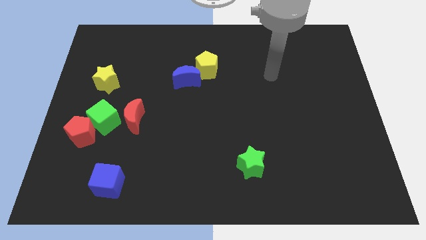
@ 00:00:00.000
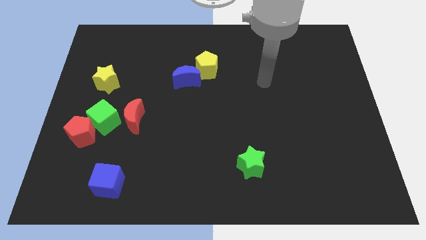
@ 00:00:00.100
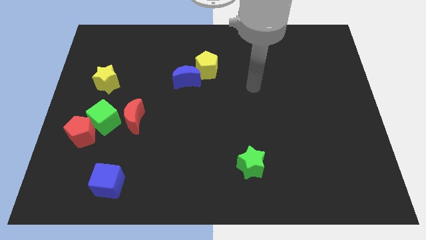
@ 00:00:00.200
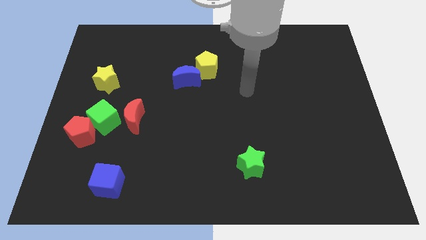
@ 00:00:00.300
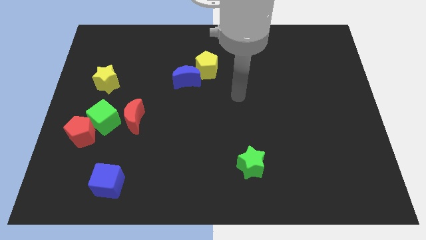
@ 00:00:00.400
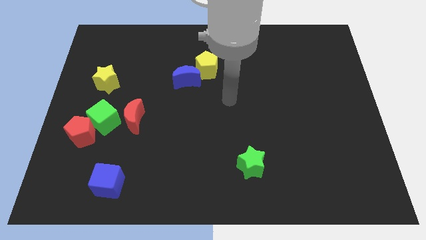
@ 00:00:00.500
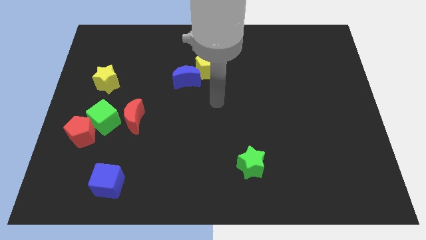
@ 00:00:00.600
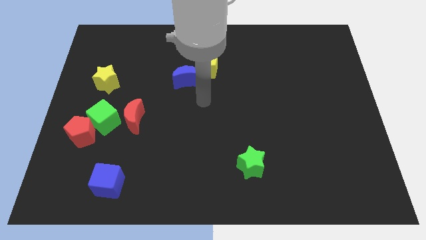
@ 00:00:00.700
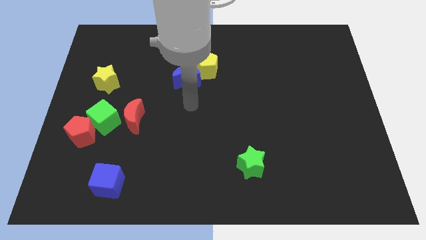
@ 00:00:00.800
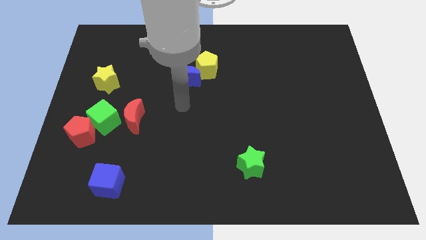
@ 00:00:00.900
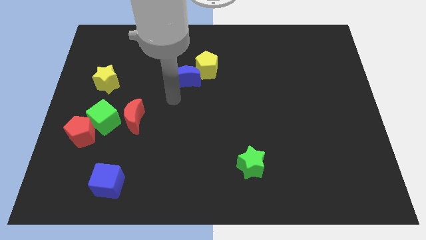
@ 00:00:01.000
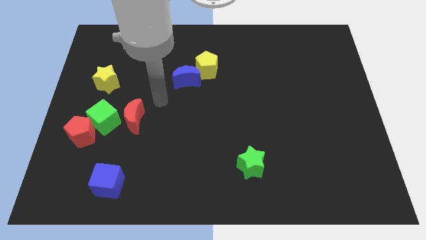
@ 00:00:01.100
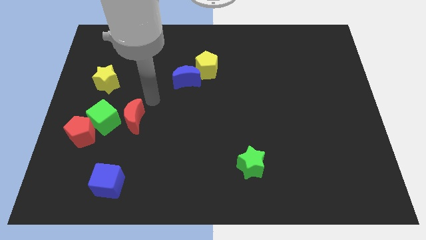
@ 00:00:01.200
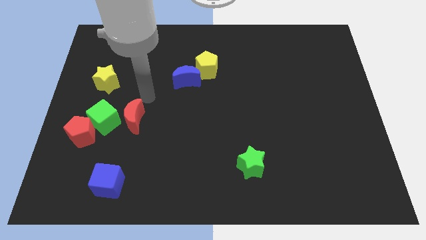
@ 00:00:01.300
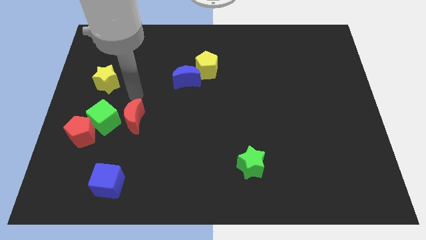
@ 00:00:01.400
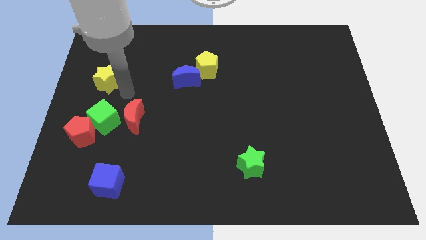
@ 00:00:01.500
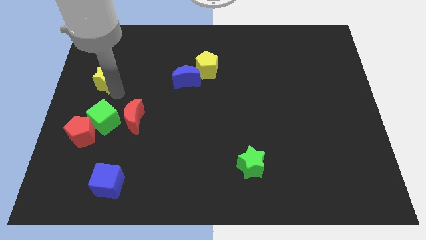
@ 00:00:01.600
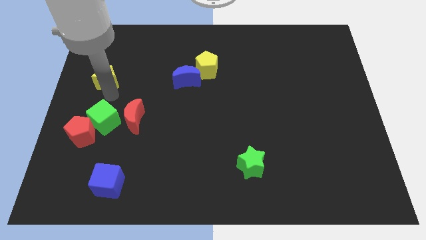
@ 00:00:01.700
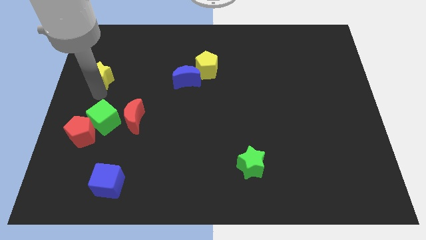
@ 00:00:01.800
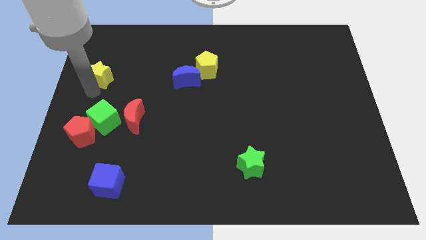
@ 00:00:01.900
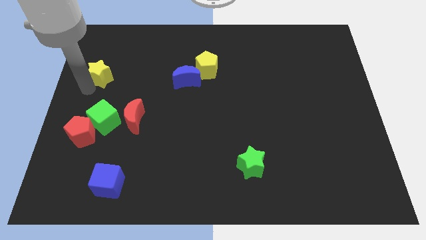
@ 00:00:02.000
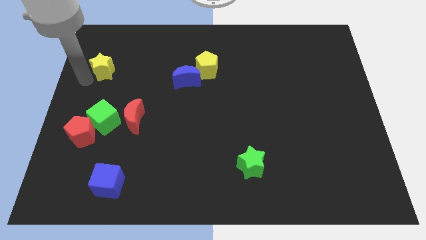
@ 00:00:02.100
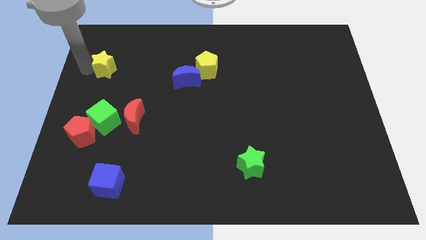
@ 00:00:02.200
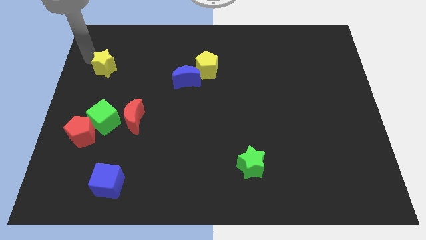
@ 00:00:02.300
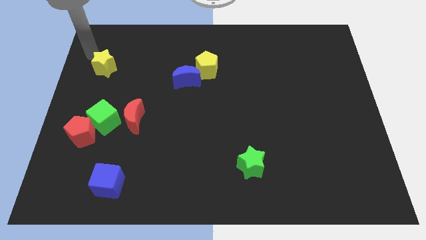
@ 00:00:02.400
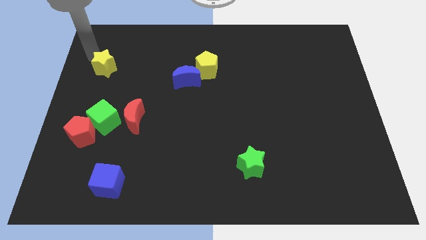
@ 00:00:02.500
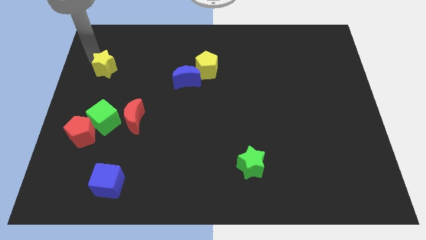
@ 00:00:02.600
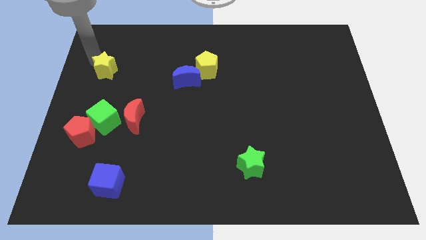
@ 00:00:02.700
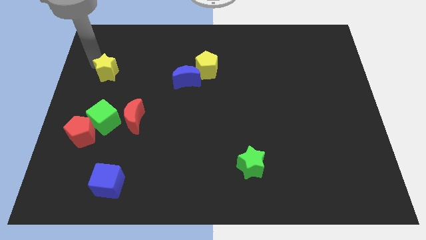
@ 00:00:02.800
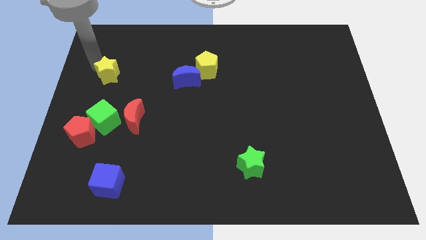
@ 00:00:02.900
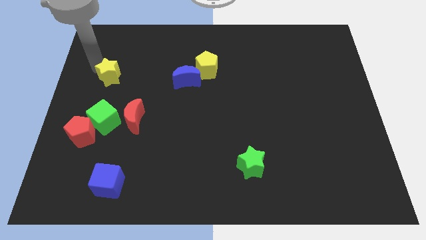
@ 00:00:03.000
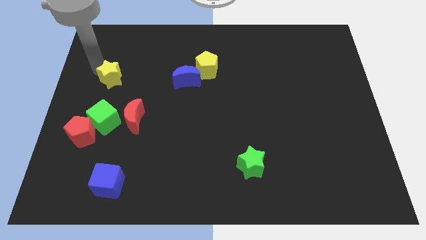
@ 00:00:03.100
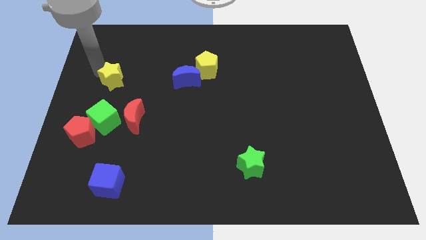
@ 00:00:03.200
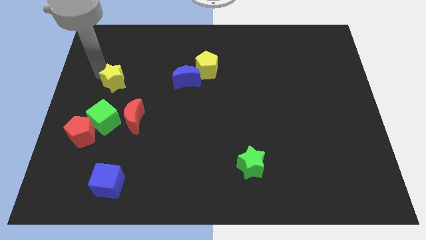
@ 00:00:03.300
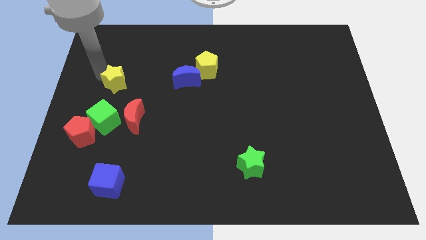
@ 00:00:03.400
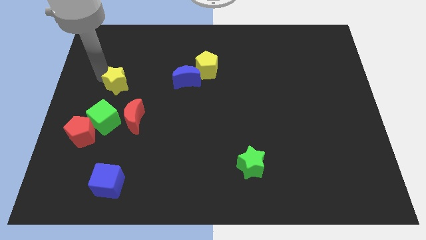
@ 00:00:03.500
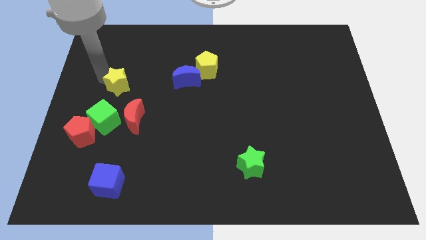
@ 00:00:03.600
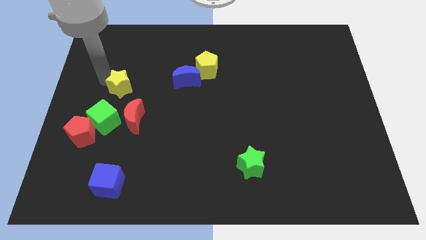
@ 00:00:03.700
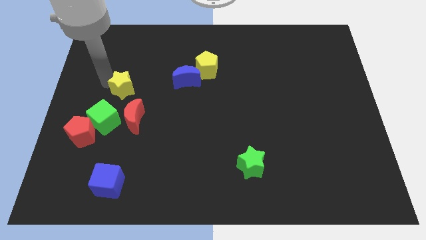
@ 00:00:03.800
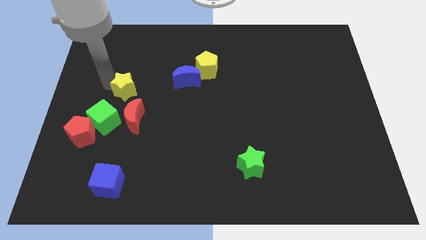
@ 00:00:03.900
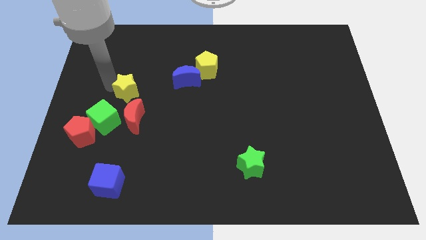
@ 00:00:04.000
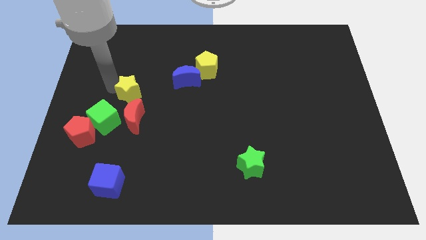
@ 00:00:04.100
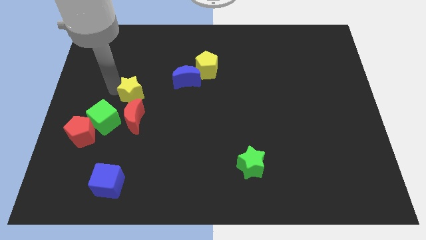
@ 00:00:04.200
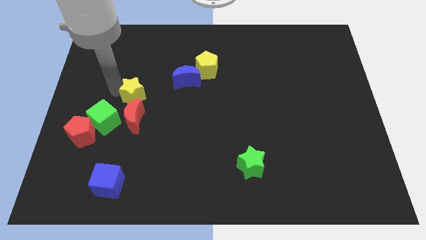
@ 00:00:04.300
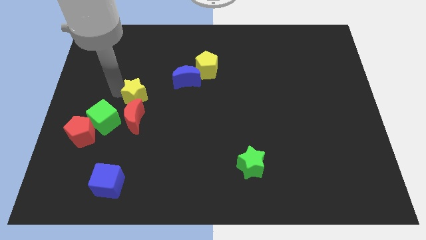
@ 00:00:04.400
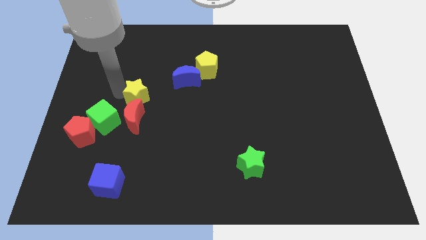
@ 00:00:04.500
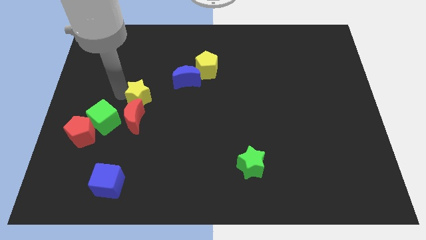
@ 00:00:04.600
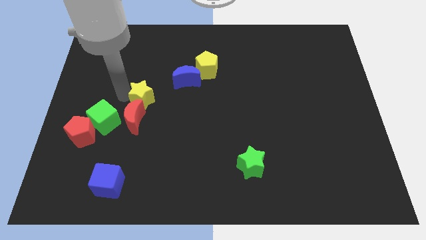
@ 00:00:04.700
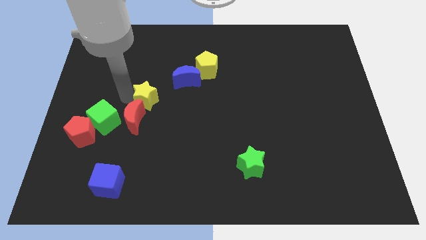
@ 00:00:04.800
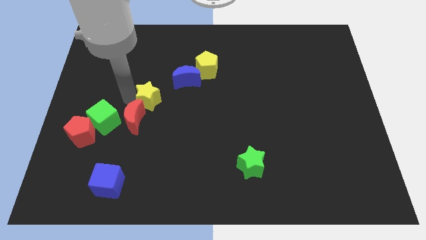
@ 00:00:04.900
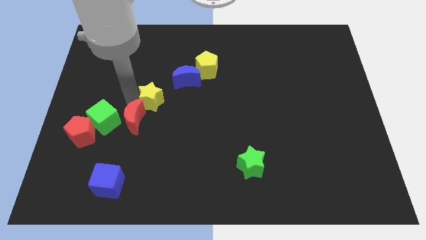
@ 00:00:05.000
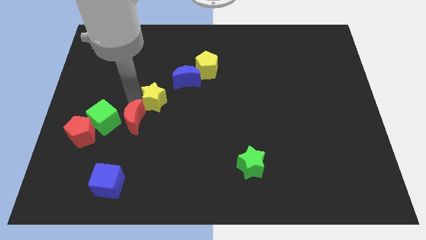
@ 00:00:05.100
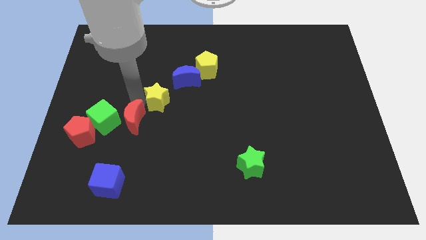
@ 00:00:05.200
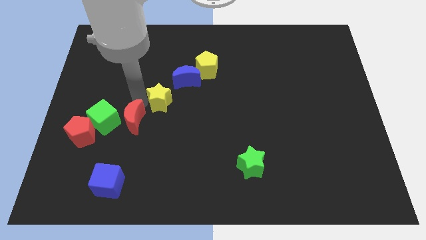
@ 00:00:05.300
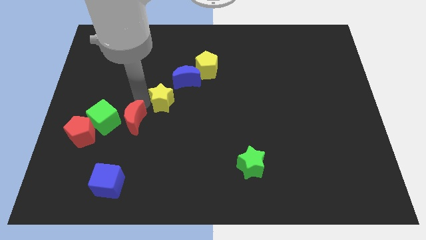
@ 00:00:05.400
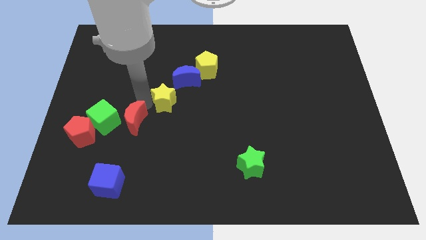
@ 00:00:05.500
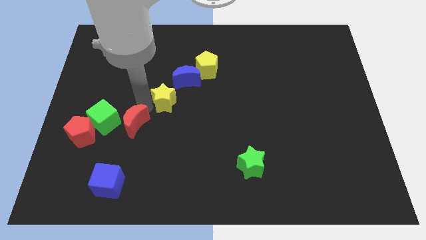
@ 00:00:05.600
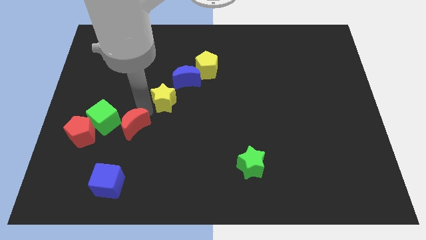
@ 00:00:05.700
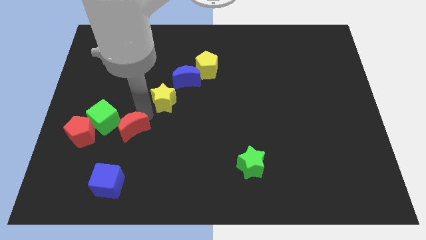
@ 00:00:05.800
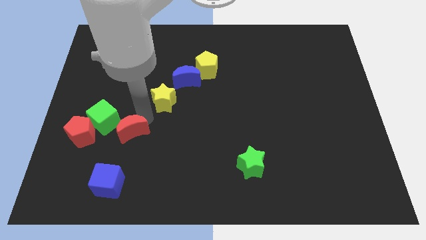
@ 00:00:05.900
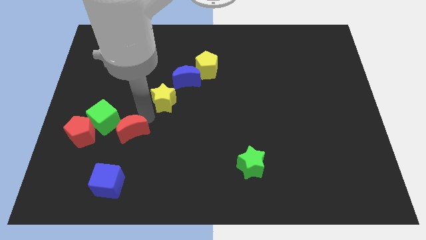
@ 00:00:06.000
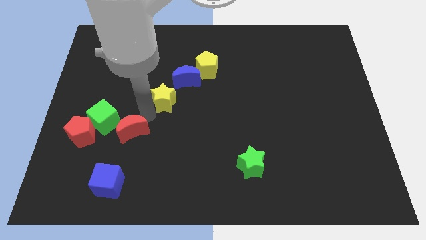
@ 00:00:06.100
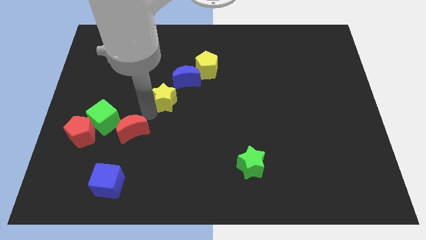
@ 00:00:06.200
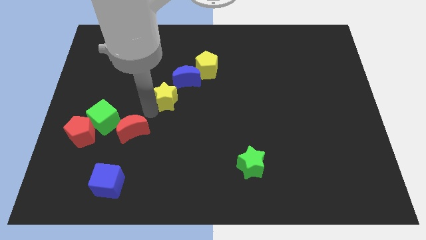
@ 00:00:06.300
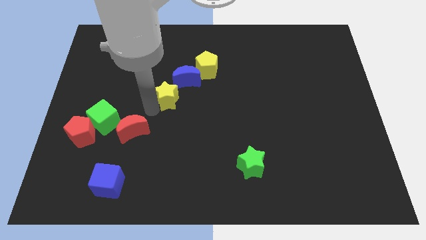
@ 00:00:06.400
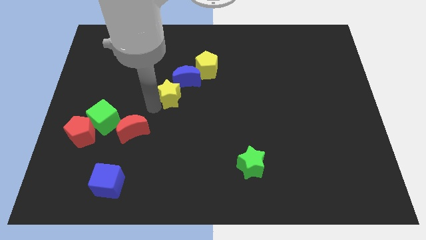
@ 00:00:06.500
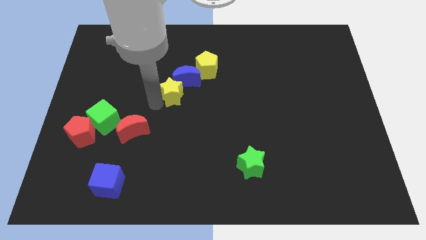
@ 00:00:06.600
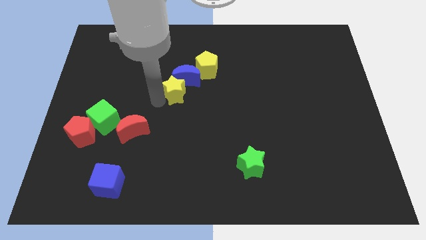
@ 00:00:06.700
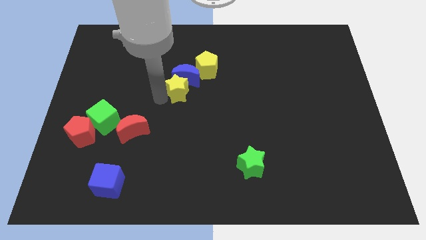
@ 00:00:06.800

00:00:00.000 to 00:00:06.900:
push the yellow star to the bottom right side of the blue moon

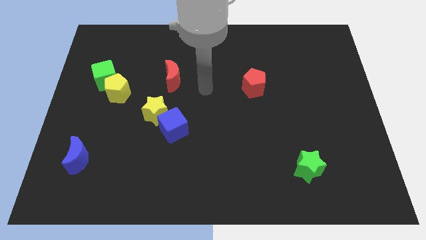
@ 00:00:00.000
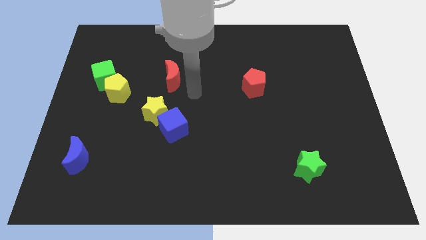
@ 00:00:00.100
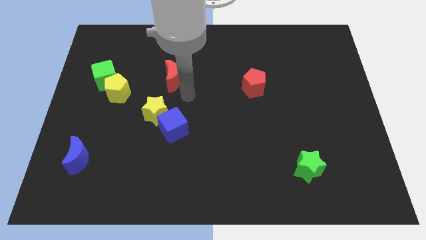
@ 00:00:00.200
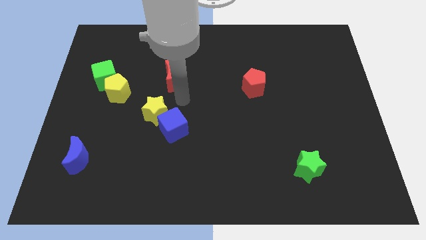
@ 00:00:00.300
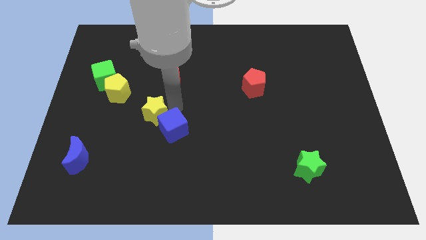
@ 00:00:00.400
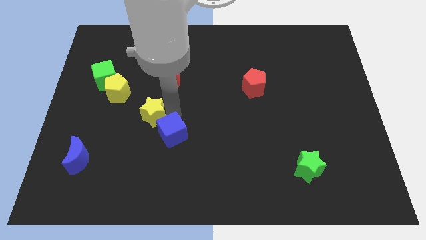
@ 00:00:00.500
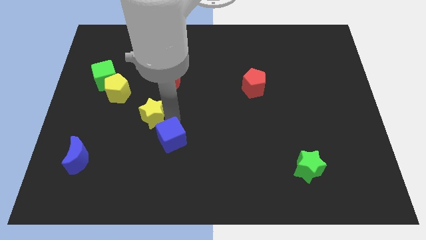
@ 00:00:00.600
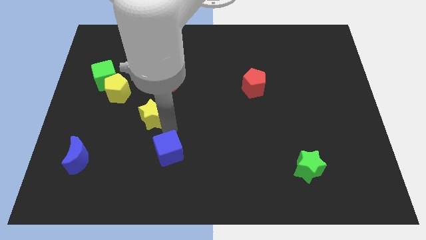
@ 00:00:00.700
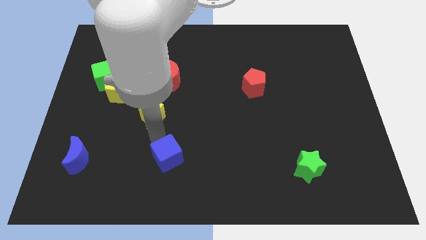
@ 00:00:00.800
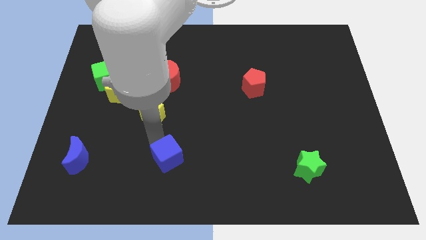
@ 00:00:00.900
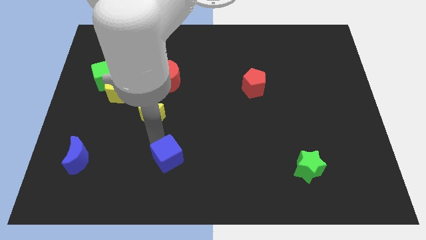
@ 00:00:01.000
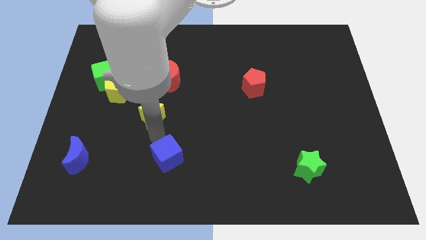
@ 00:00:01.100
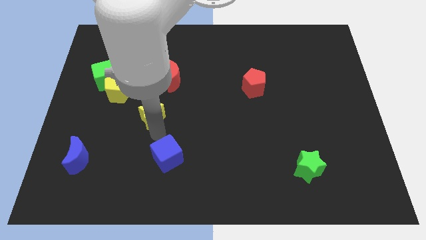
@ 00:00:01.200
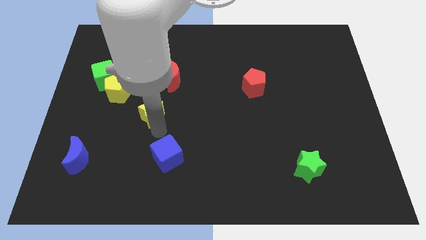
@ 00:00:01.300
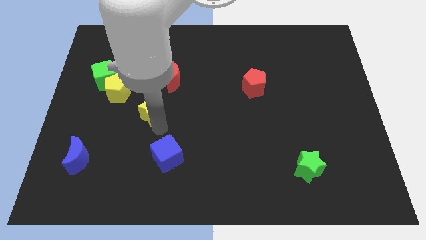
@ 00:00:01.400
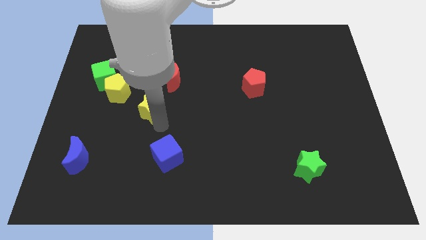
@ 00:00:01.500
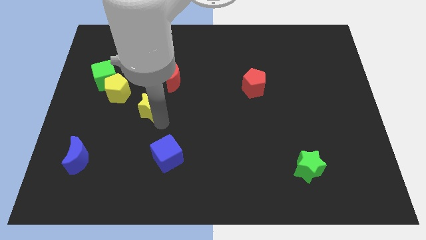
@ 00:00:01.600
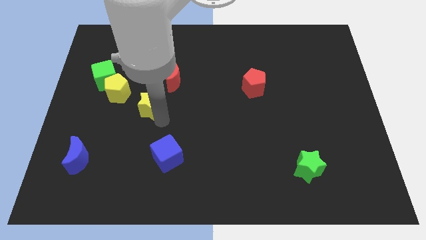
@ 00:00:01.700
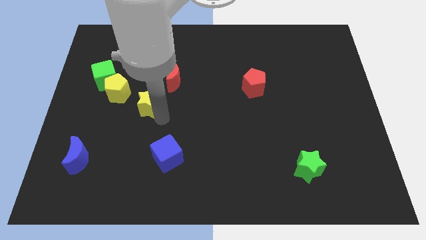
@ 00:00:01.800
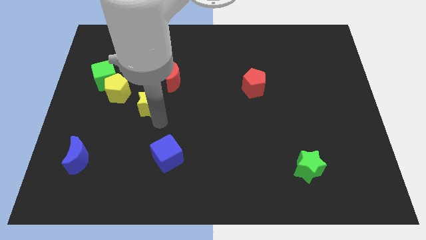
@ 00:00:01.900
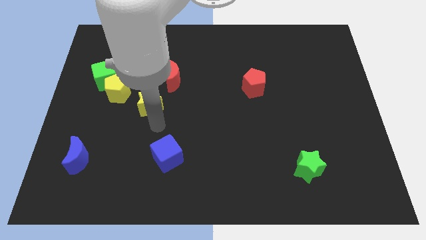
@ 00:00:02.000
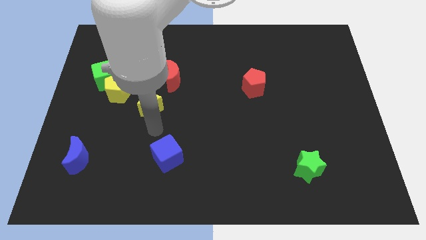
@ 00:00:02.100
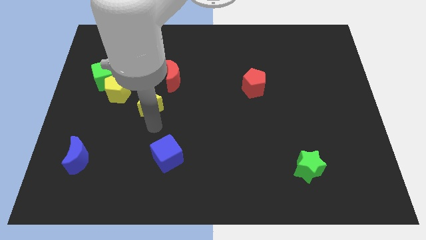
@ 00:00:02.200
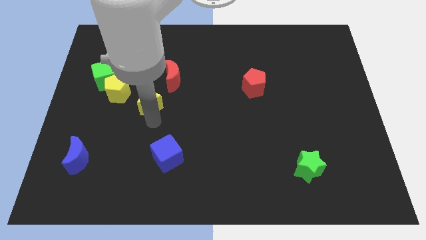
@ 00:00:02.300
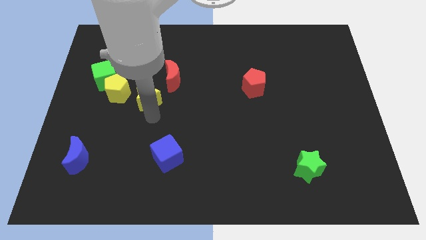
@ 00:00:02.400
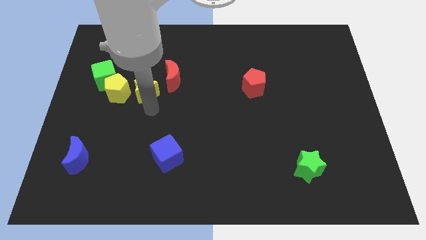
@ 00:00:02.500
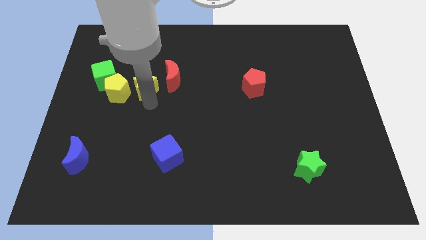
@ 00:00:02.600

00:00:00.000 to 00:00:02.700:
slide the yellow star to the top right side of the yellow pentagon
